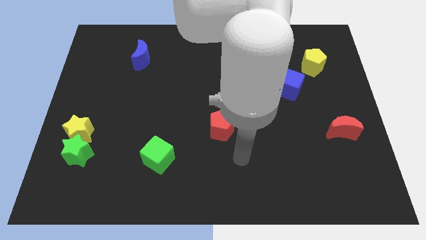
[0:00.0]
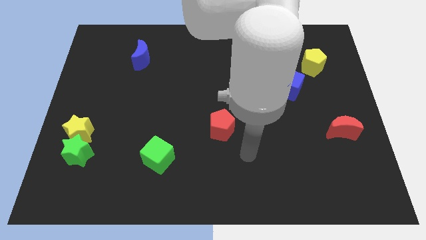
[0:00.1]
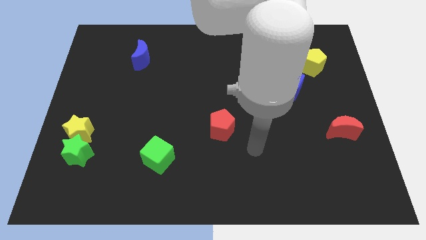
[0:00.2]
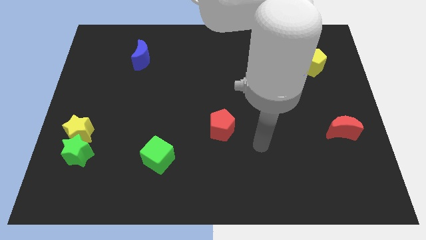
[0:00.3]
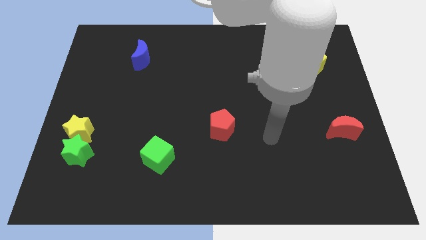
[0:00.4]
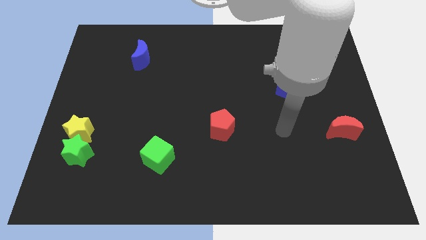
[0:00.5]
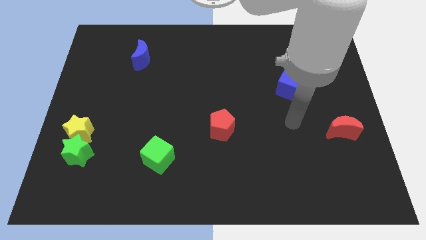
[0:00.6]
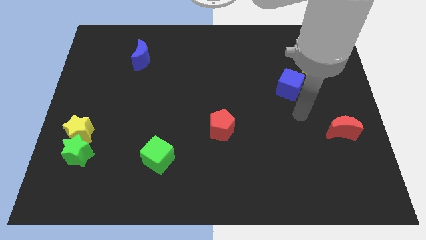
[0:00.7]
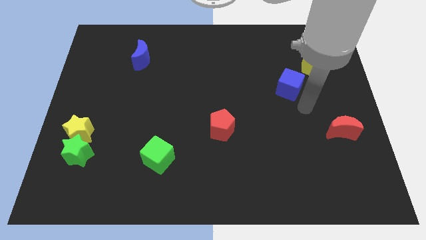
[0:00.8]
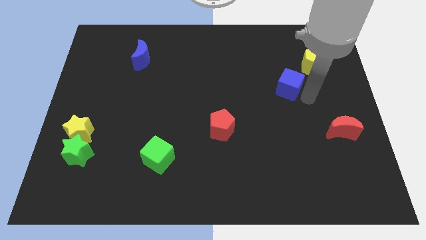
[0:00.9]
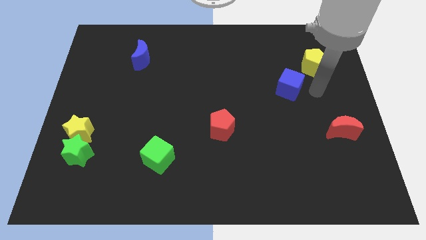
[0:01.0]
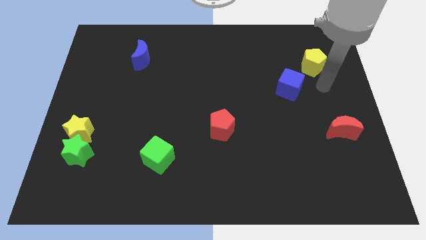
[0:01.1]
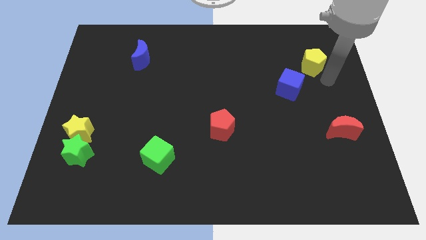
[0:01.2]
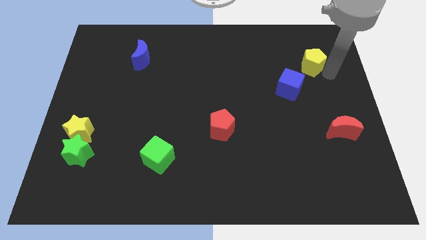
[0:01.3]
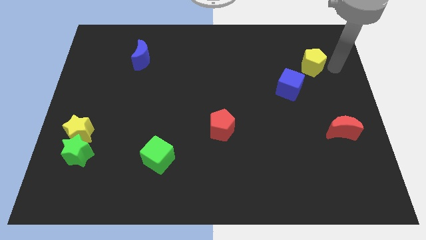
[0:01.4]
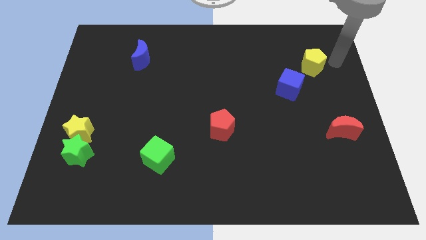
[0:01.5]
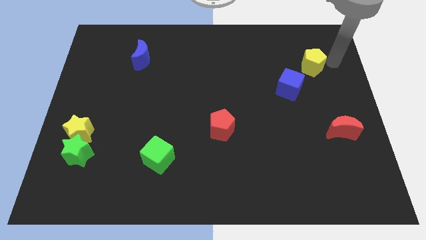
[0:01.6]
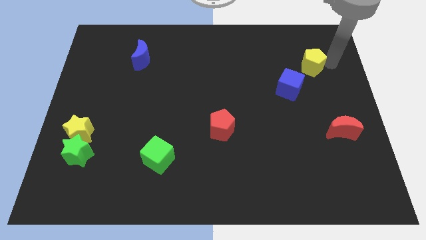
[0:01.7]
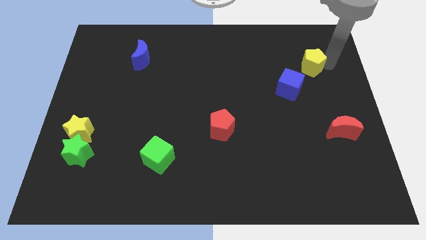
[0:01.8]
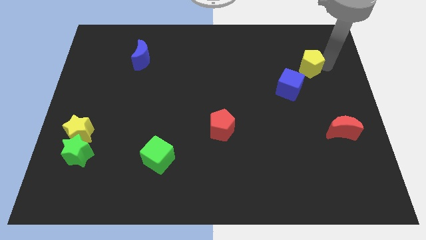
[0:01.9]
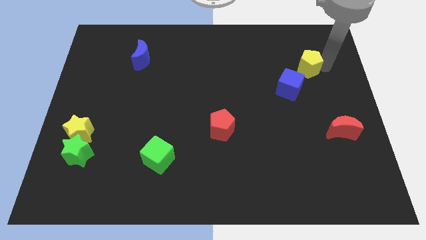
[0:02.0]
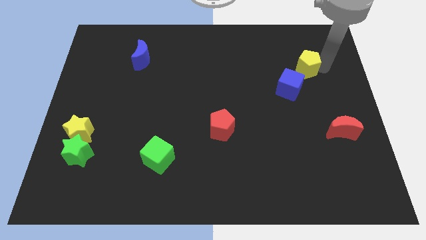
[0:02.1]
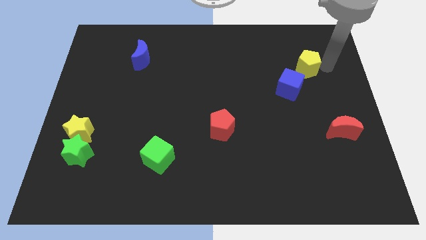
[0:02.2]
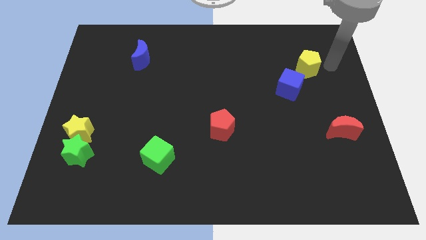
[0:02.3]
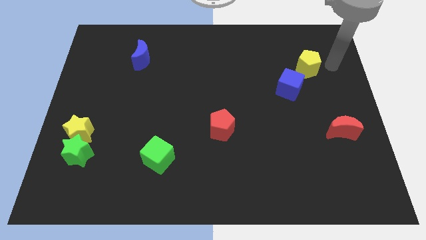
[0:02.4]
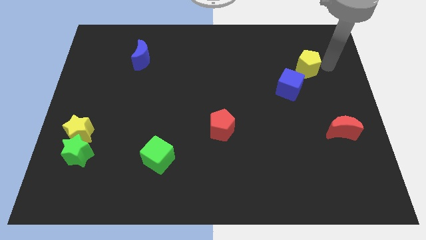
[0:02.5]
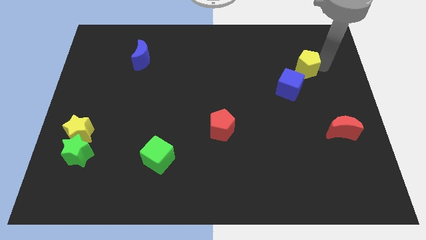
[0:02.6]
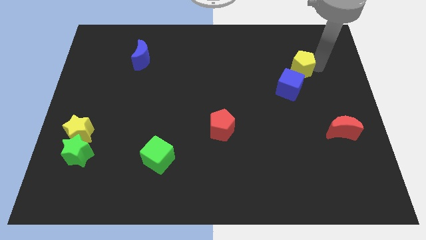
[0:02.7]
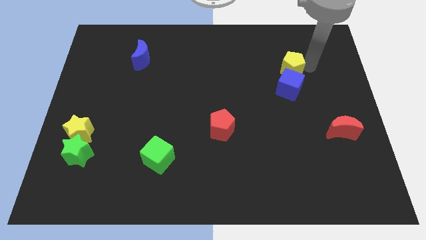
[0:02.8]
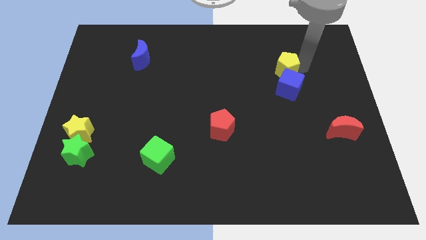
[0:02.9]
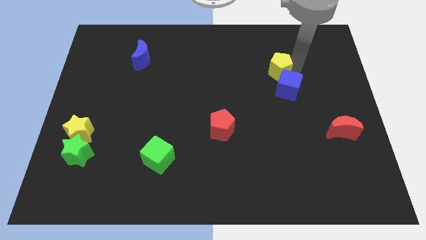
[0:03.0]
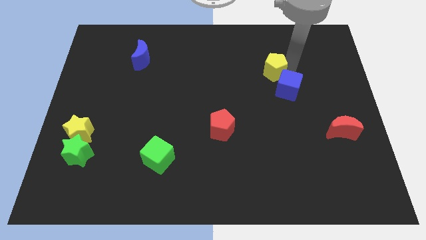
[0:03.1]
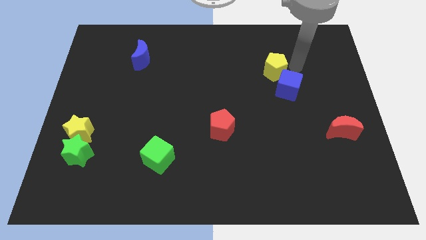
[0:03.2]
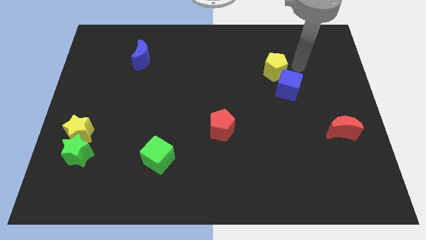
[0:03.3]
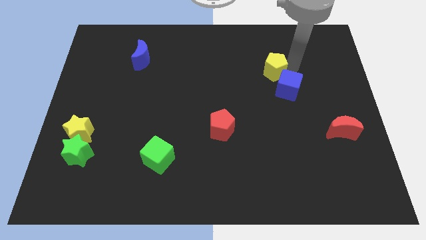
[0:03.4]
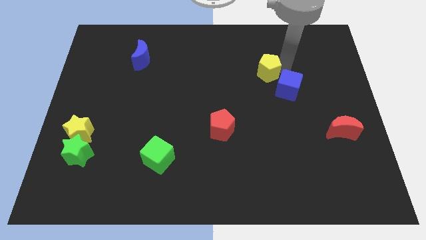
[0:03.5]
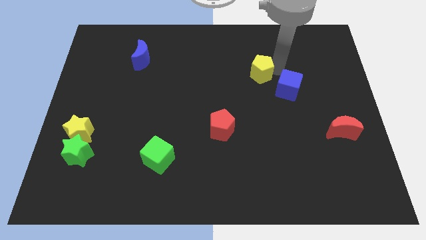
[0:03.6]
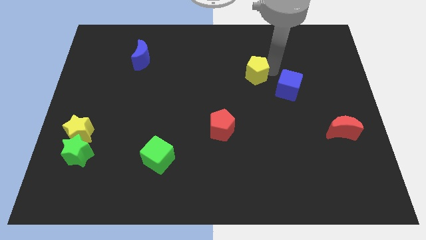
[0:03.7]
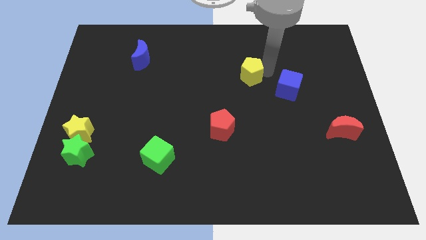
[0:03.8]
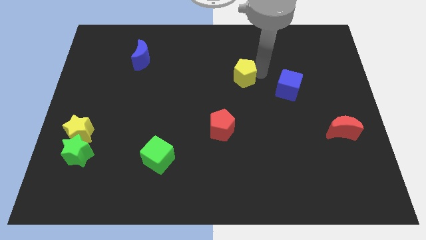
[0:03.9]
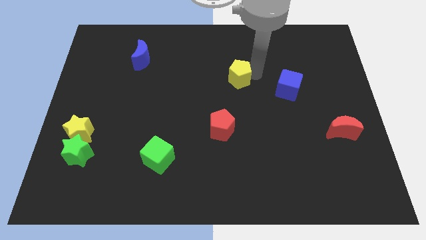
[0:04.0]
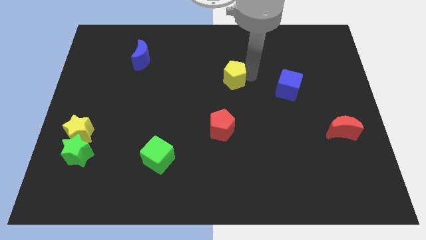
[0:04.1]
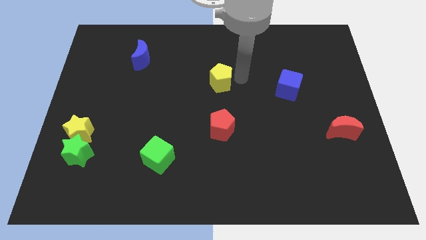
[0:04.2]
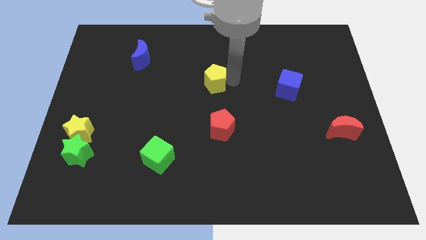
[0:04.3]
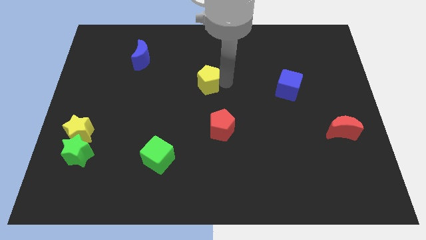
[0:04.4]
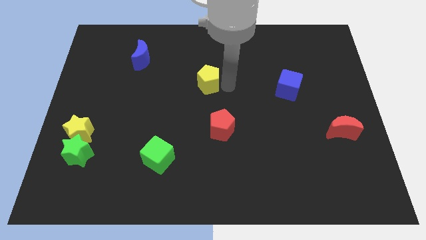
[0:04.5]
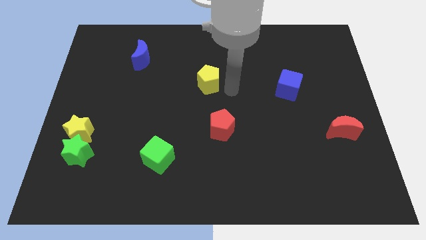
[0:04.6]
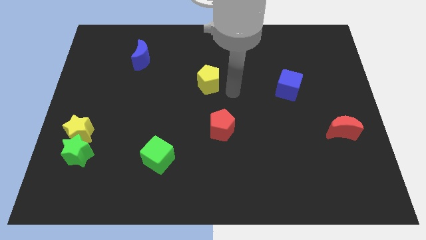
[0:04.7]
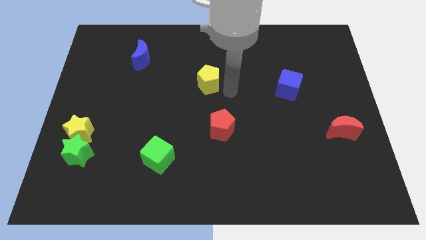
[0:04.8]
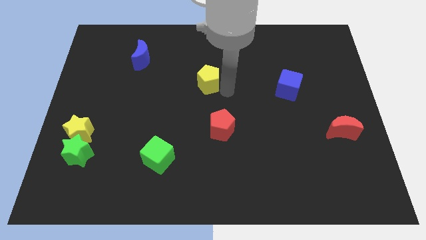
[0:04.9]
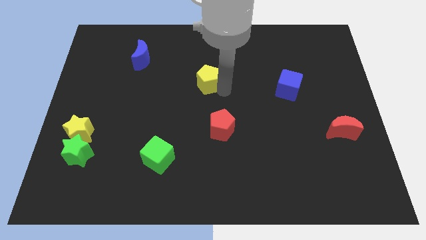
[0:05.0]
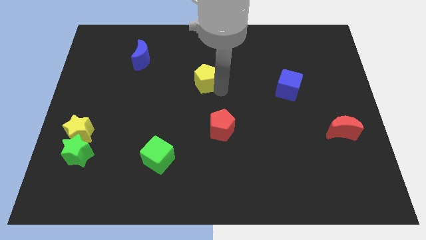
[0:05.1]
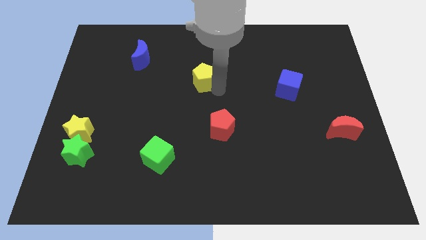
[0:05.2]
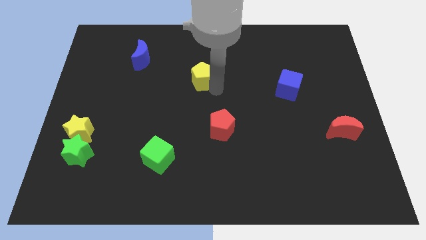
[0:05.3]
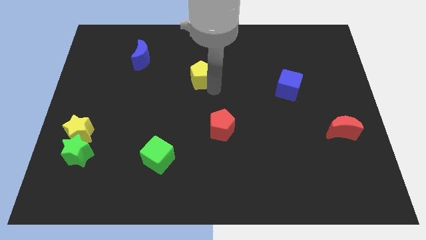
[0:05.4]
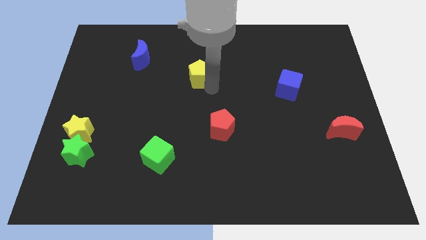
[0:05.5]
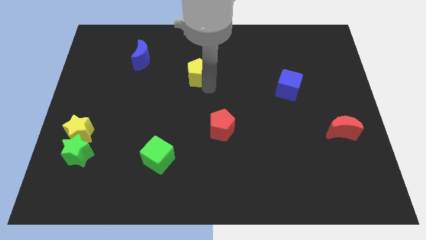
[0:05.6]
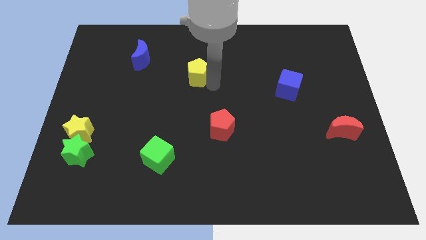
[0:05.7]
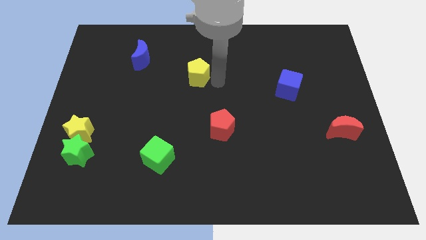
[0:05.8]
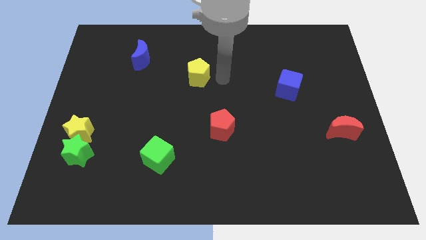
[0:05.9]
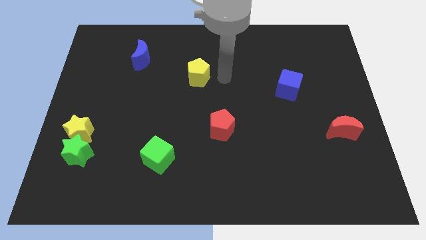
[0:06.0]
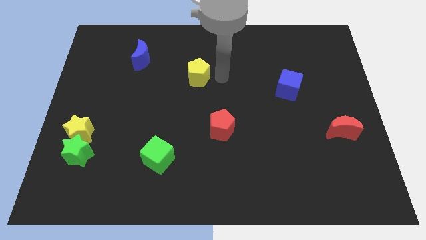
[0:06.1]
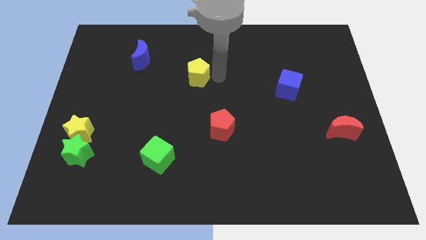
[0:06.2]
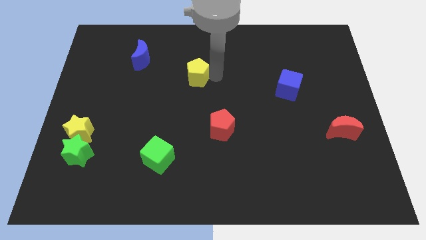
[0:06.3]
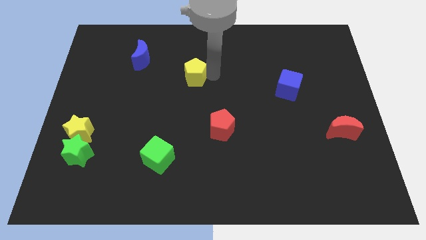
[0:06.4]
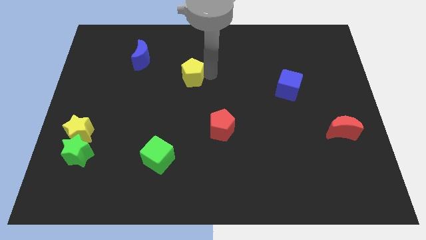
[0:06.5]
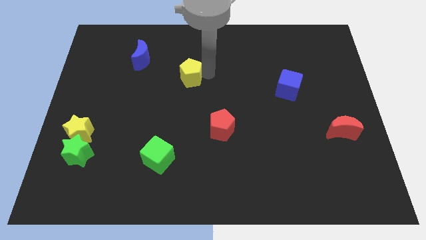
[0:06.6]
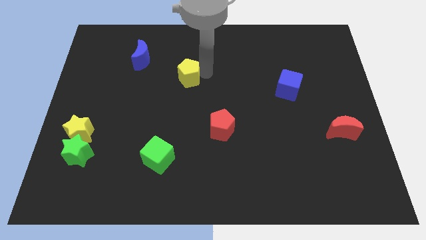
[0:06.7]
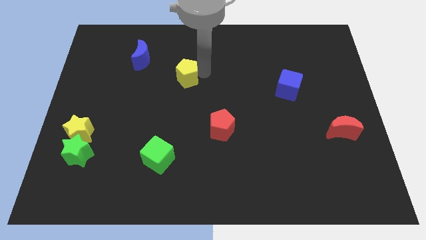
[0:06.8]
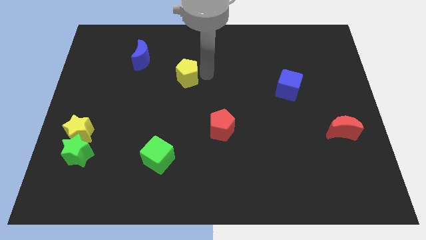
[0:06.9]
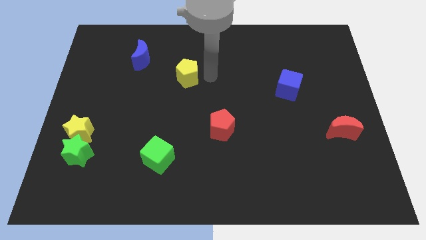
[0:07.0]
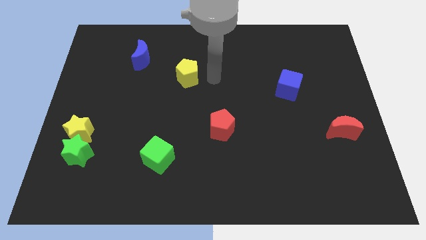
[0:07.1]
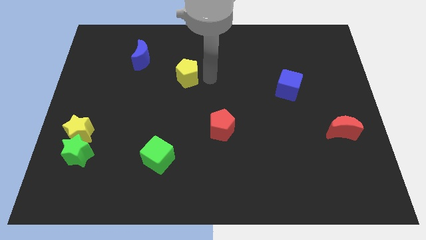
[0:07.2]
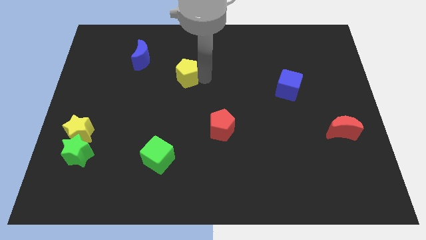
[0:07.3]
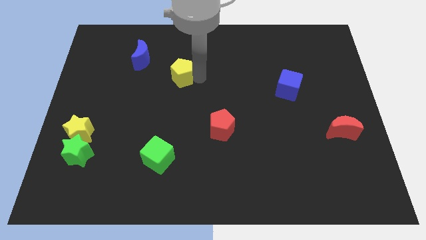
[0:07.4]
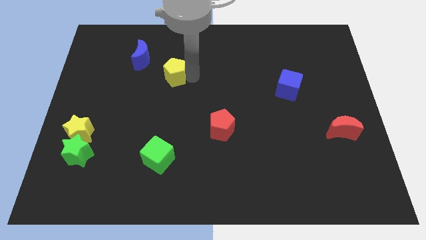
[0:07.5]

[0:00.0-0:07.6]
slide the yellow pentagon to the bottom right of the blue moon
